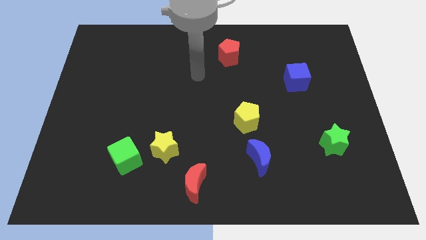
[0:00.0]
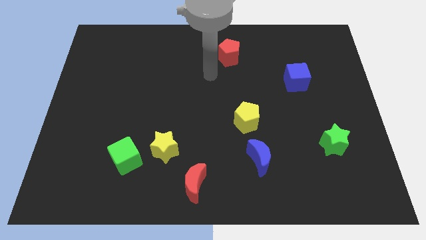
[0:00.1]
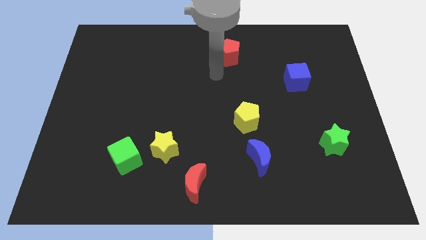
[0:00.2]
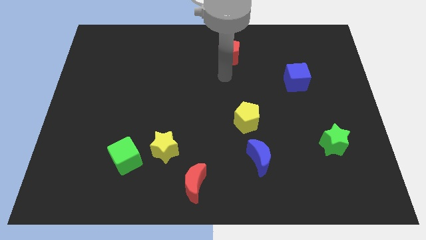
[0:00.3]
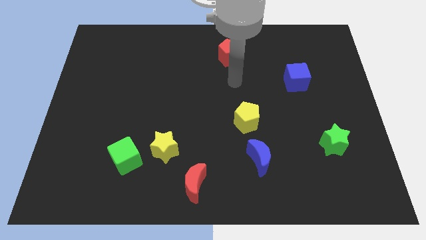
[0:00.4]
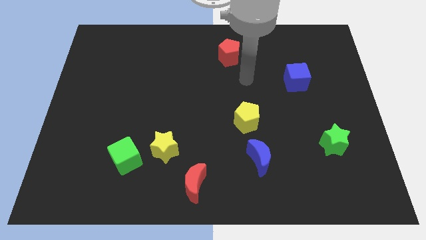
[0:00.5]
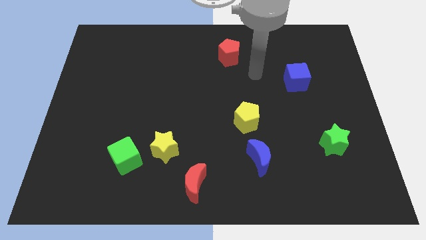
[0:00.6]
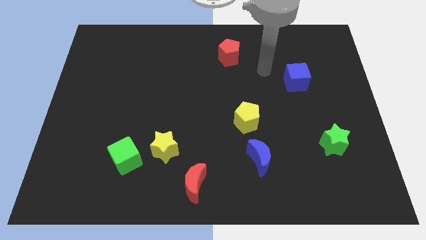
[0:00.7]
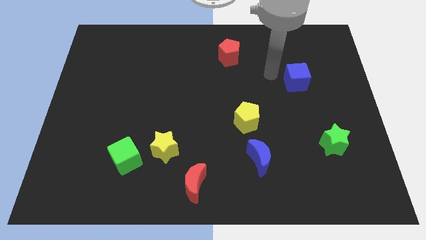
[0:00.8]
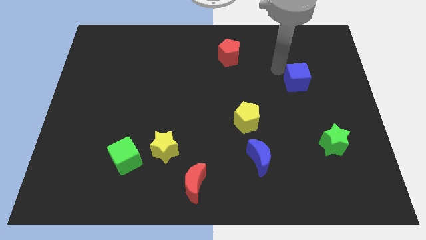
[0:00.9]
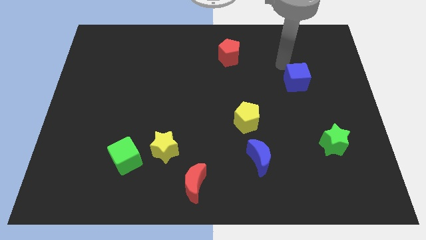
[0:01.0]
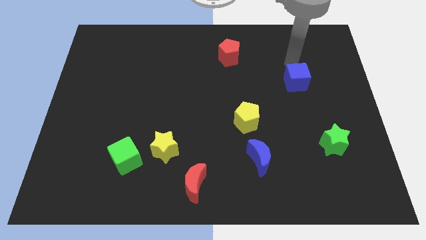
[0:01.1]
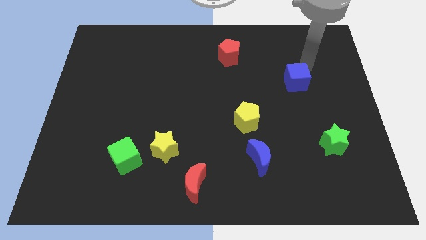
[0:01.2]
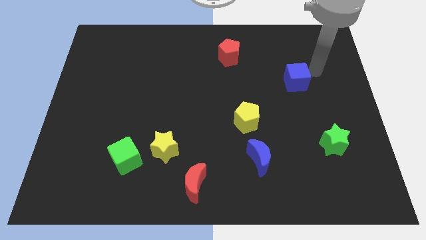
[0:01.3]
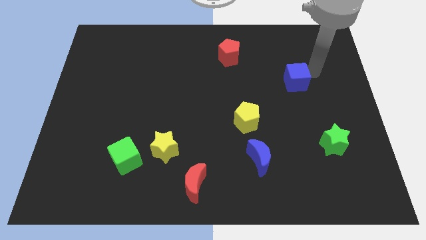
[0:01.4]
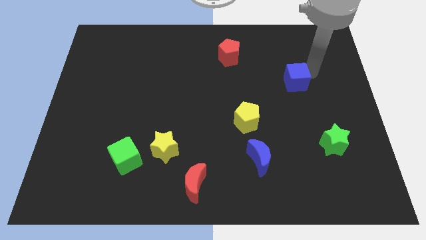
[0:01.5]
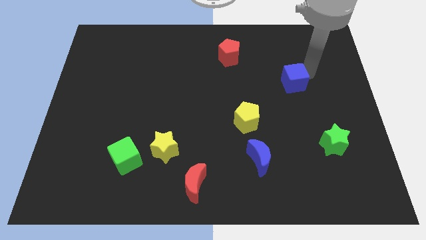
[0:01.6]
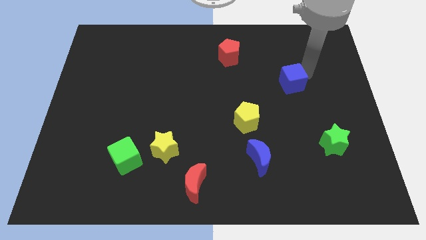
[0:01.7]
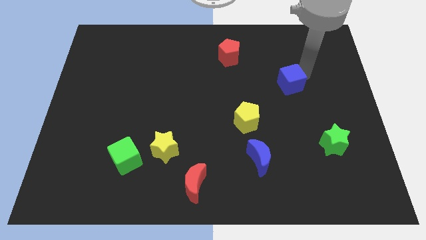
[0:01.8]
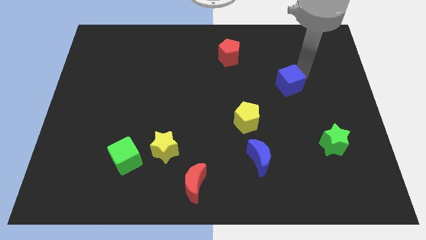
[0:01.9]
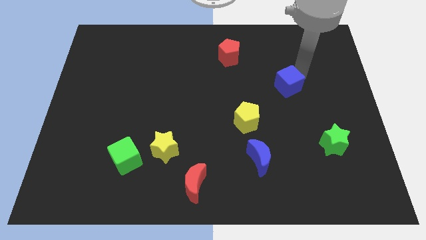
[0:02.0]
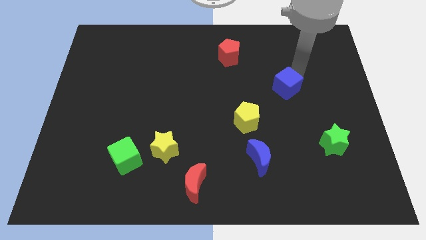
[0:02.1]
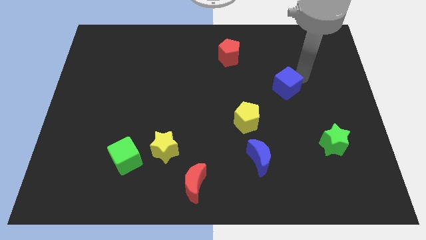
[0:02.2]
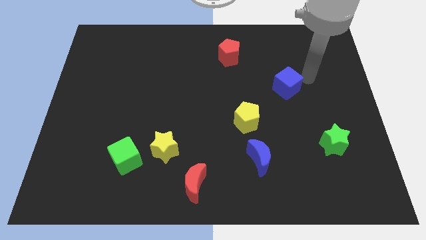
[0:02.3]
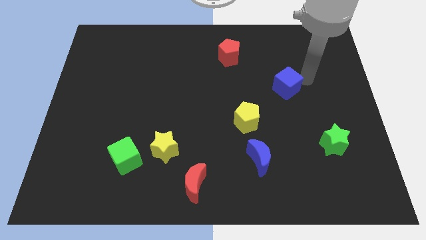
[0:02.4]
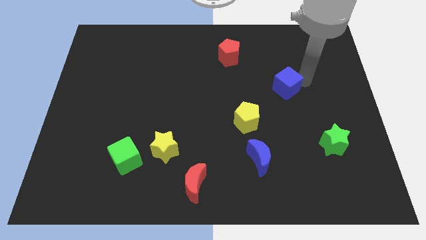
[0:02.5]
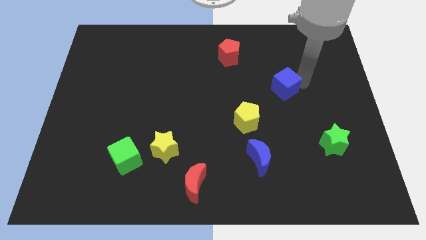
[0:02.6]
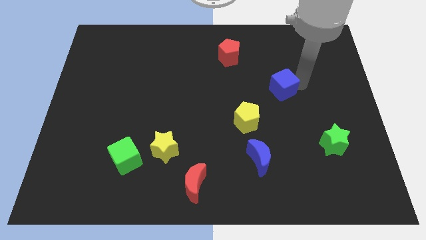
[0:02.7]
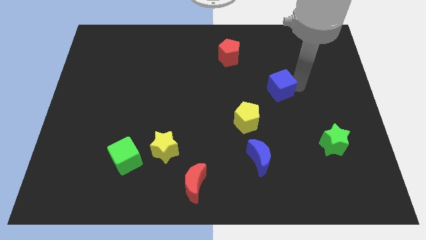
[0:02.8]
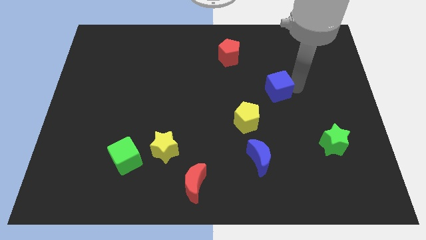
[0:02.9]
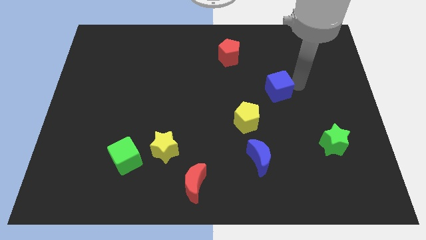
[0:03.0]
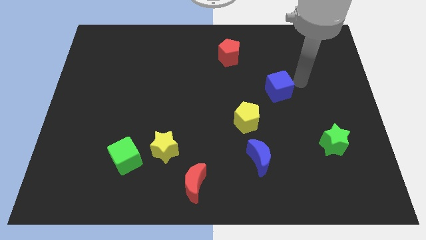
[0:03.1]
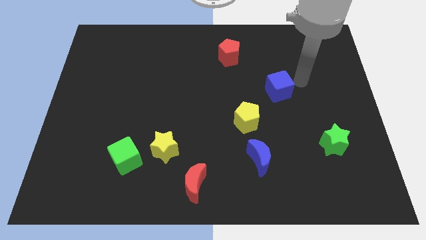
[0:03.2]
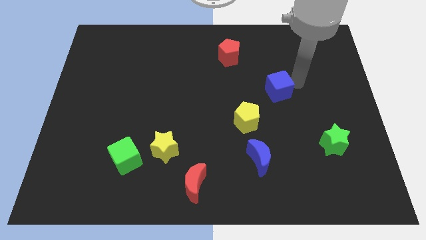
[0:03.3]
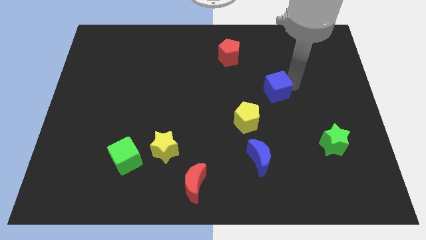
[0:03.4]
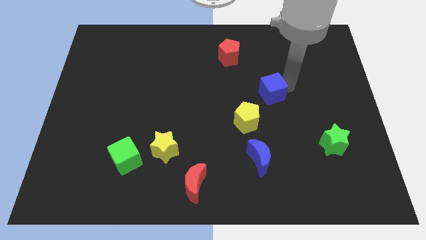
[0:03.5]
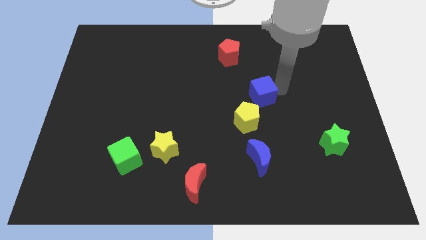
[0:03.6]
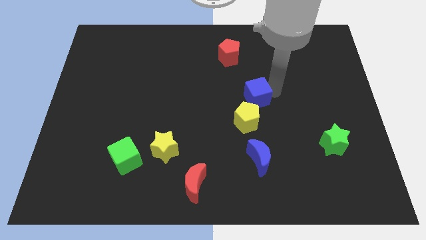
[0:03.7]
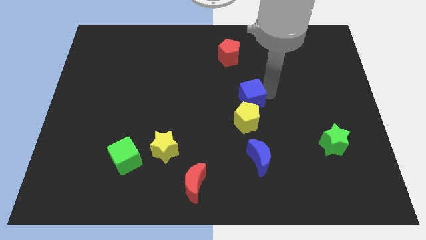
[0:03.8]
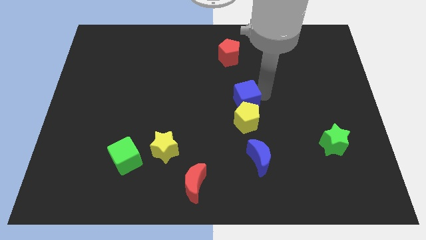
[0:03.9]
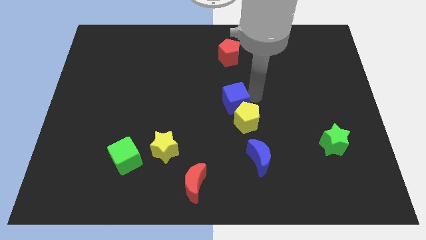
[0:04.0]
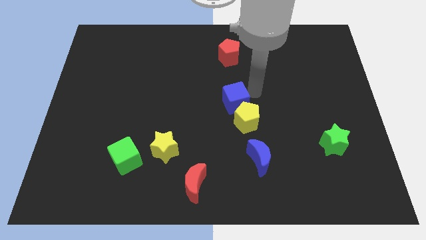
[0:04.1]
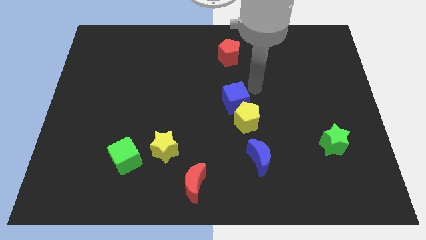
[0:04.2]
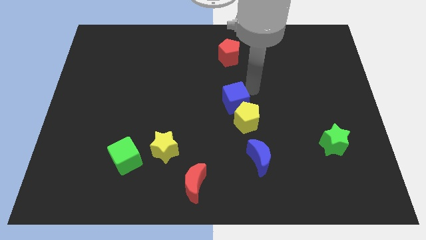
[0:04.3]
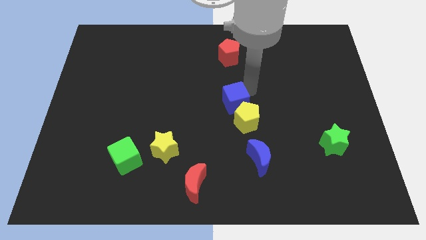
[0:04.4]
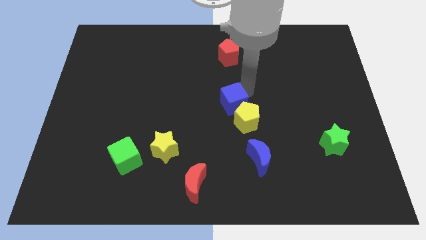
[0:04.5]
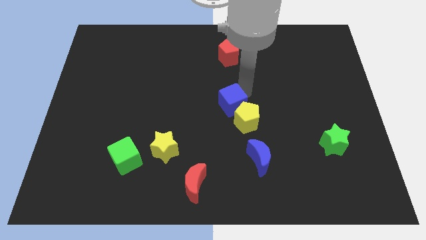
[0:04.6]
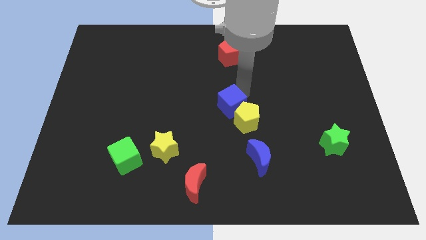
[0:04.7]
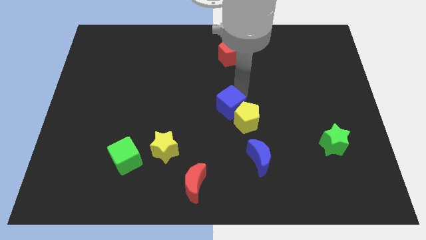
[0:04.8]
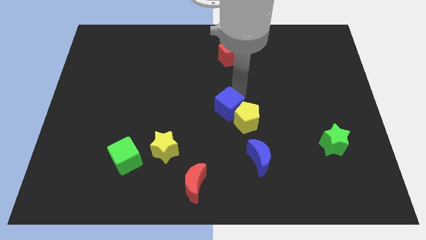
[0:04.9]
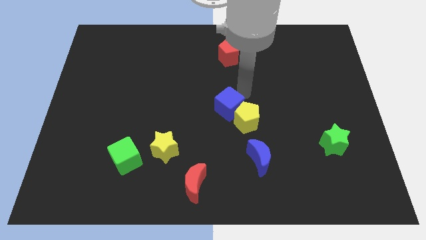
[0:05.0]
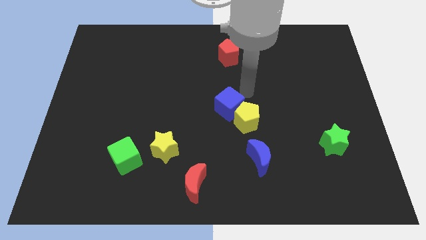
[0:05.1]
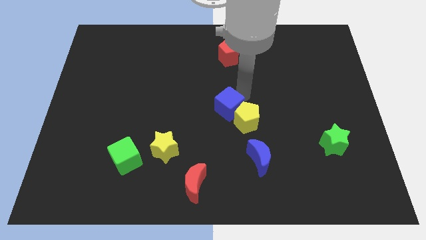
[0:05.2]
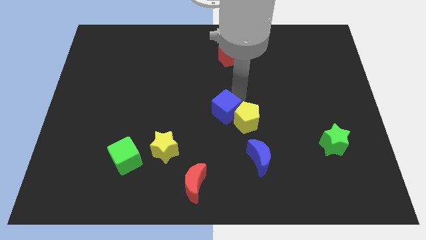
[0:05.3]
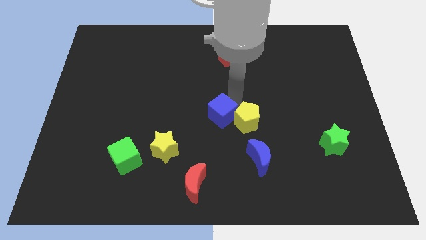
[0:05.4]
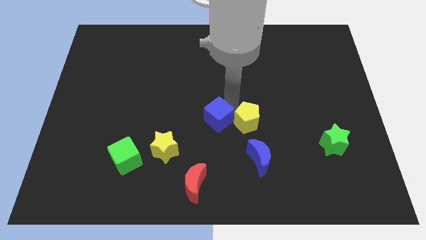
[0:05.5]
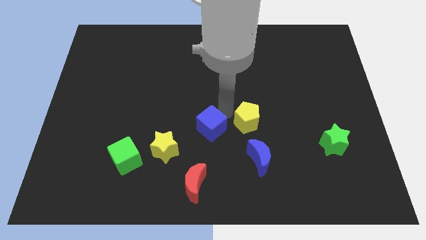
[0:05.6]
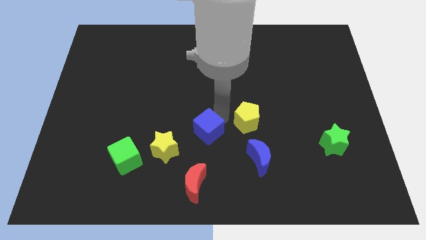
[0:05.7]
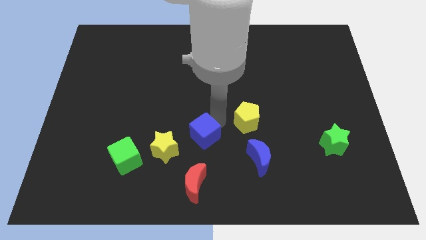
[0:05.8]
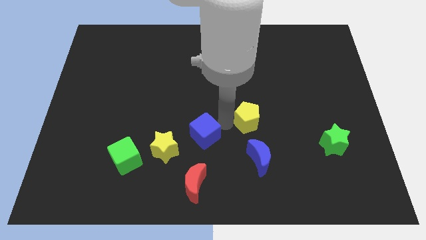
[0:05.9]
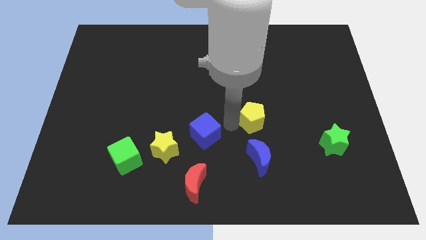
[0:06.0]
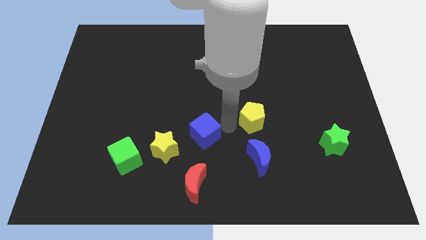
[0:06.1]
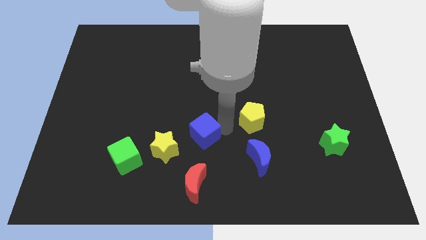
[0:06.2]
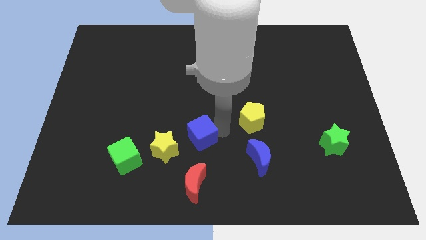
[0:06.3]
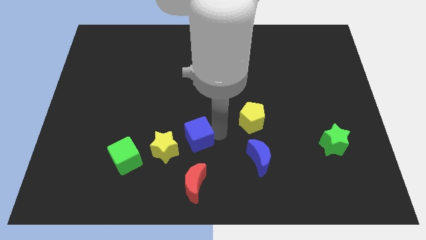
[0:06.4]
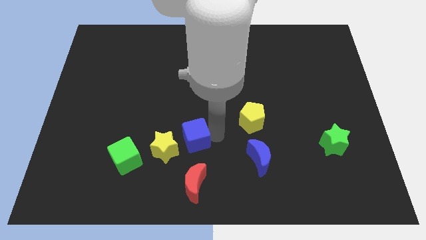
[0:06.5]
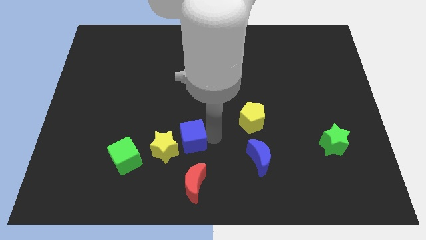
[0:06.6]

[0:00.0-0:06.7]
move the blue cube towards the yellow star

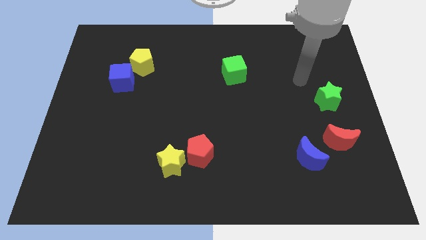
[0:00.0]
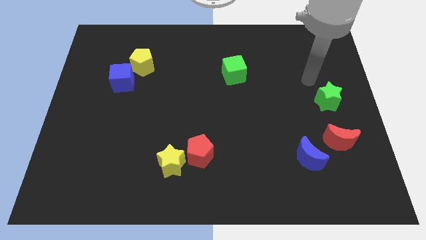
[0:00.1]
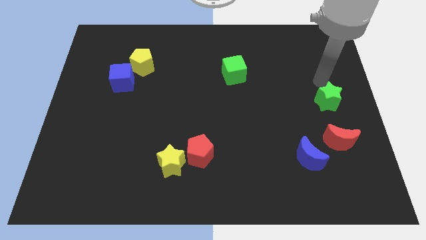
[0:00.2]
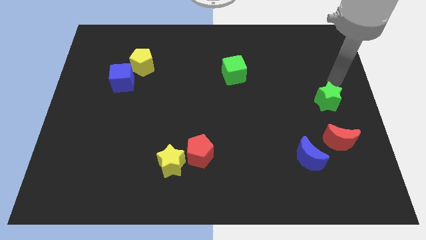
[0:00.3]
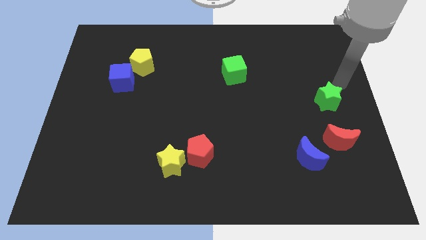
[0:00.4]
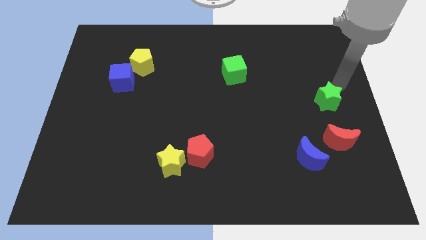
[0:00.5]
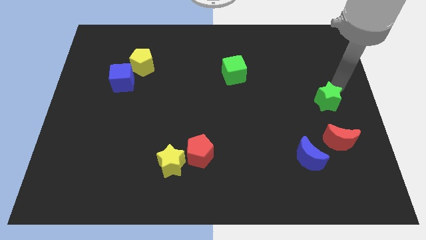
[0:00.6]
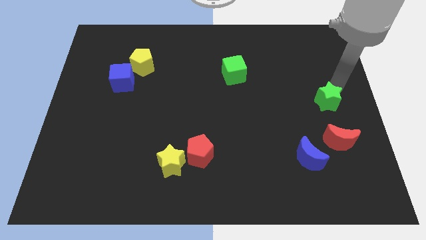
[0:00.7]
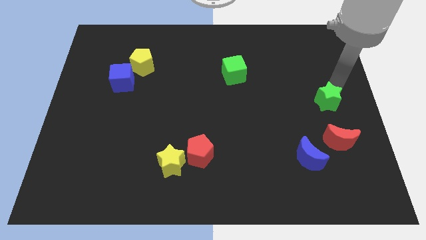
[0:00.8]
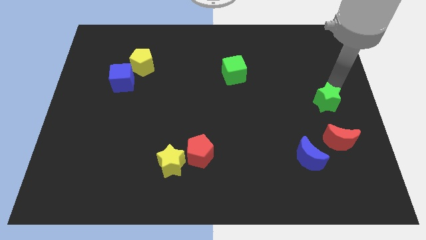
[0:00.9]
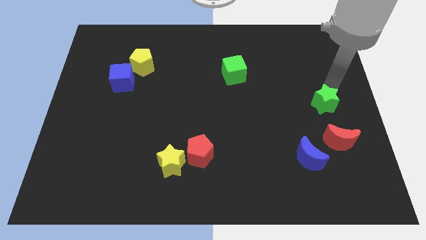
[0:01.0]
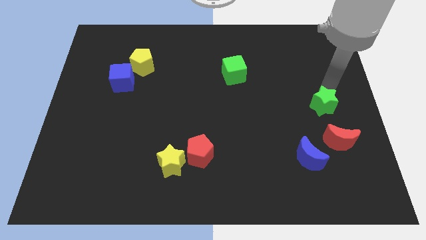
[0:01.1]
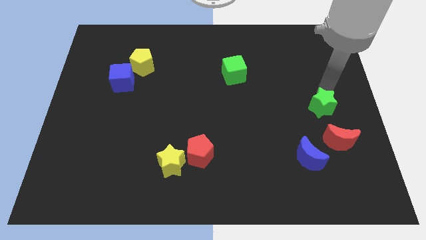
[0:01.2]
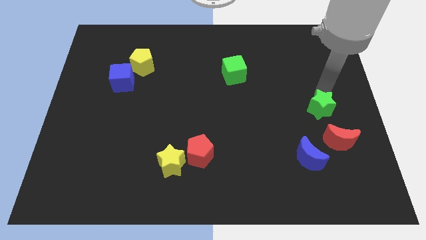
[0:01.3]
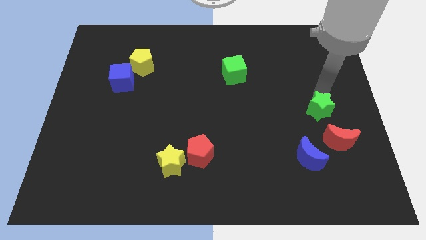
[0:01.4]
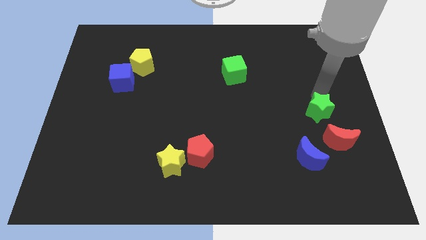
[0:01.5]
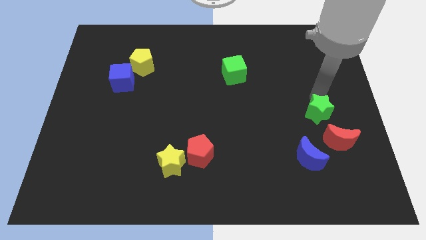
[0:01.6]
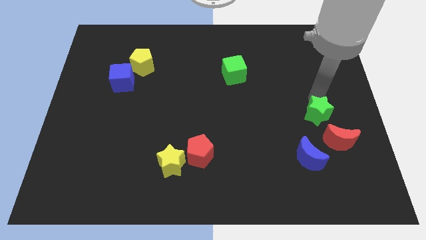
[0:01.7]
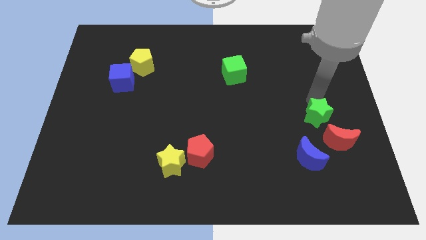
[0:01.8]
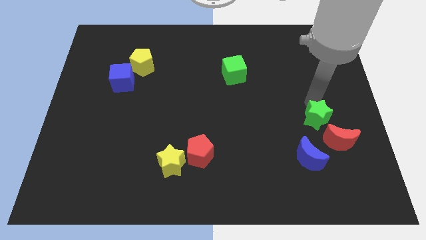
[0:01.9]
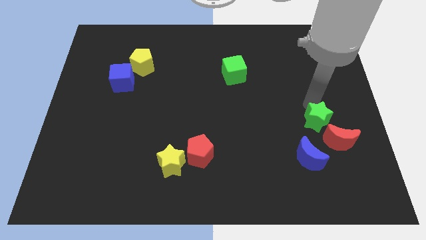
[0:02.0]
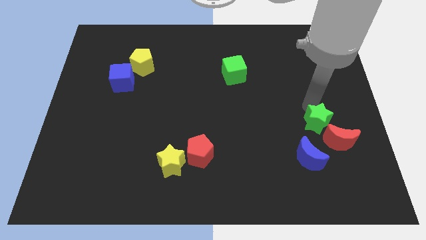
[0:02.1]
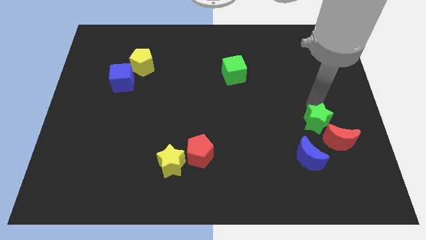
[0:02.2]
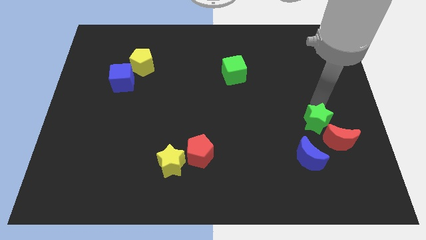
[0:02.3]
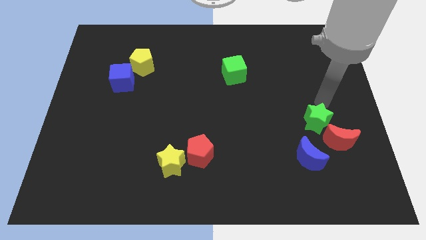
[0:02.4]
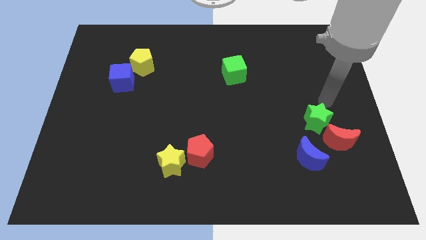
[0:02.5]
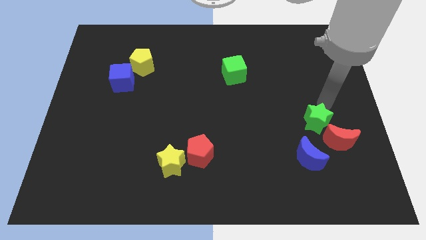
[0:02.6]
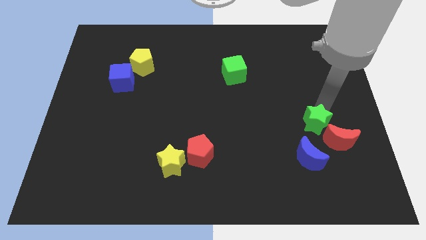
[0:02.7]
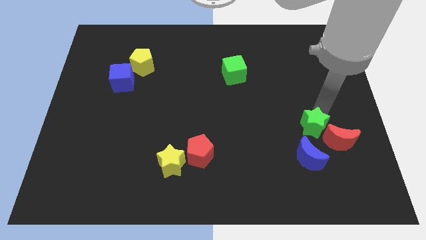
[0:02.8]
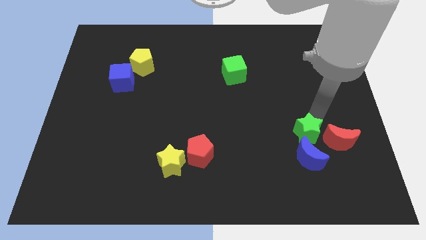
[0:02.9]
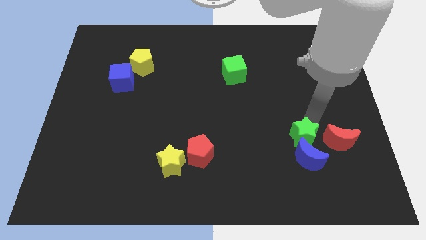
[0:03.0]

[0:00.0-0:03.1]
push the green star next to the blue moon
